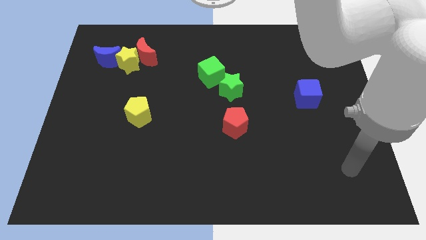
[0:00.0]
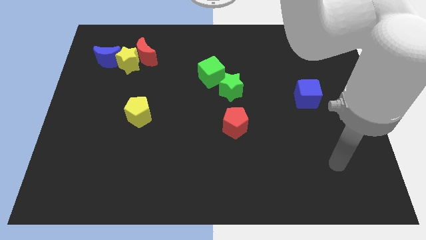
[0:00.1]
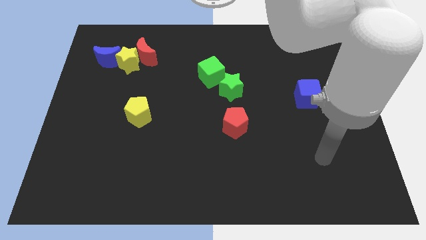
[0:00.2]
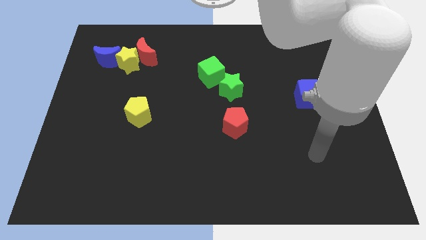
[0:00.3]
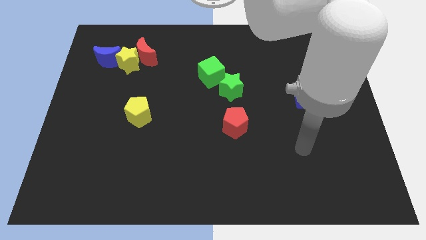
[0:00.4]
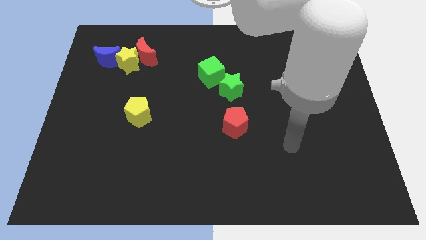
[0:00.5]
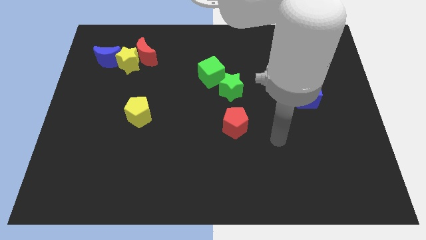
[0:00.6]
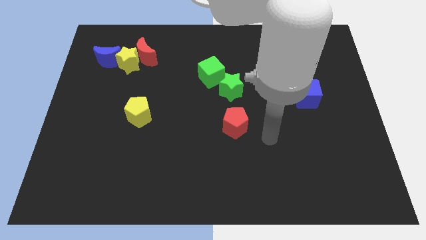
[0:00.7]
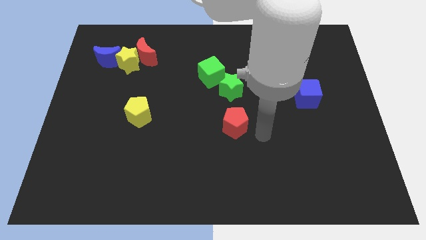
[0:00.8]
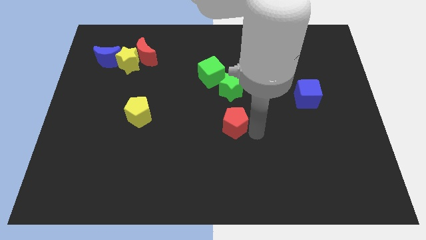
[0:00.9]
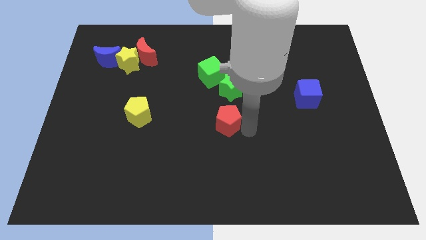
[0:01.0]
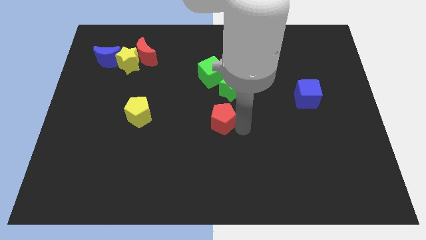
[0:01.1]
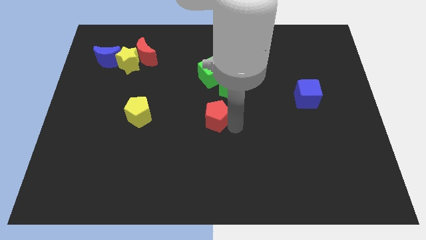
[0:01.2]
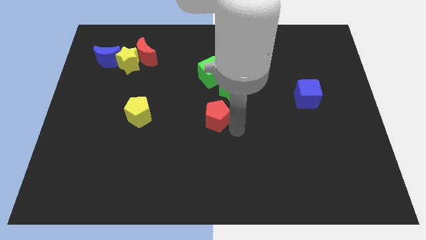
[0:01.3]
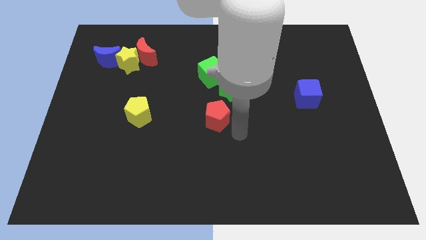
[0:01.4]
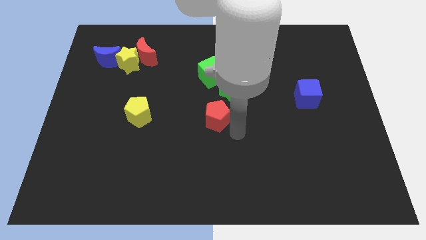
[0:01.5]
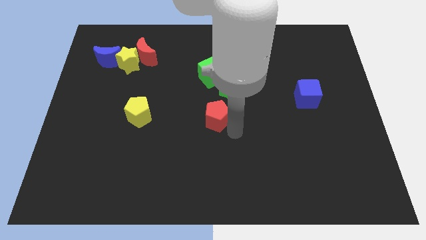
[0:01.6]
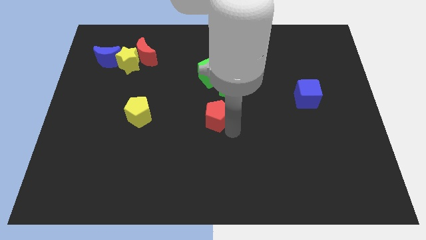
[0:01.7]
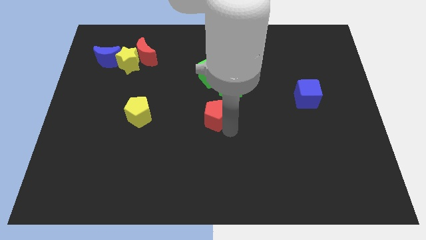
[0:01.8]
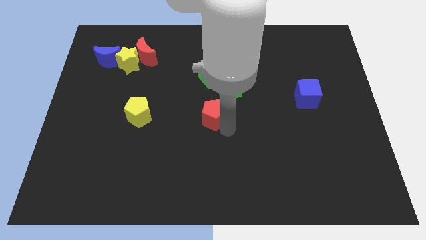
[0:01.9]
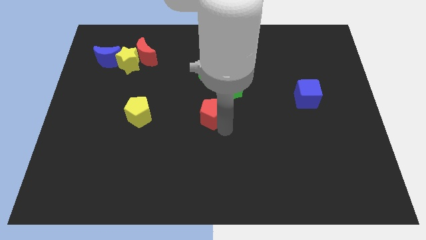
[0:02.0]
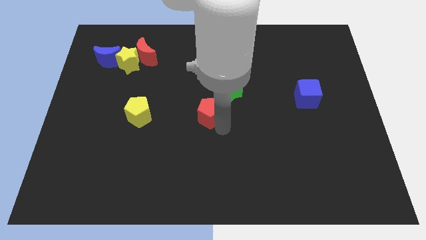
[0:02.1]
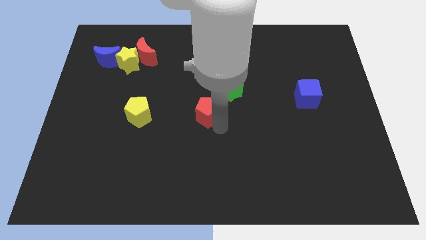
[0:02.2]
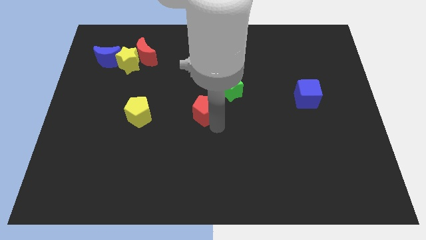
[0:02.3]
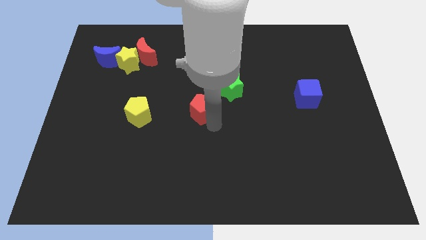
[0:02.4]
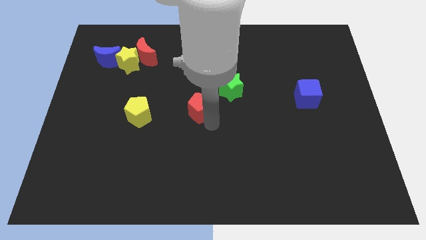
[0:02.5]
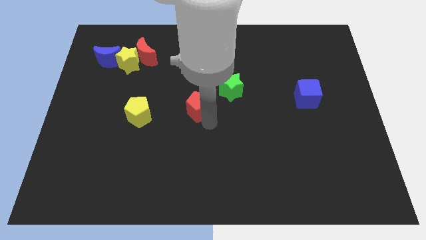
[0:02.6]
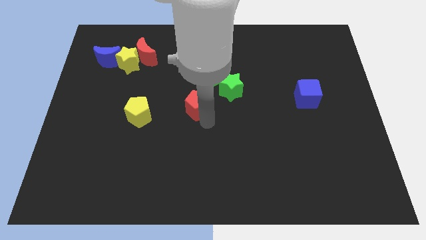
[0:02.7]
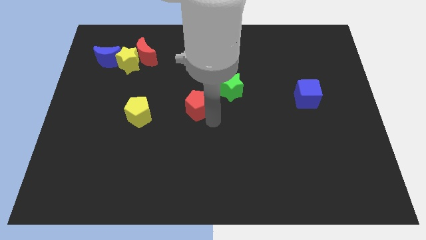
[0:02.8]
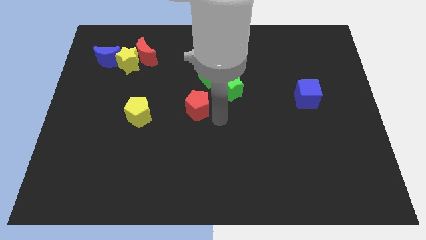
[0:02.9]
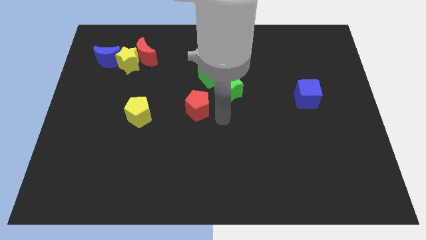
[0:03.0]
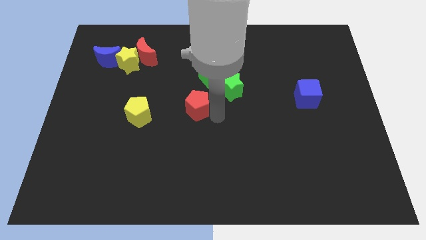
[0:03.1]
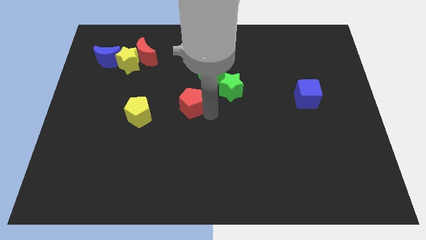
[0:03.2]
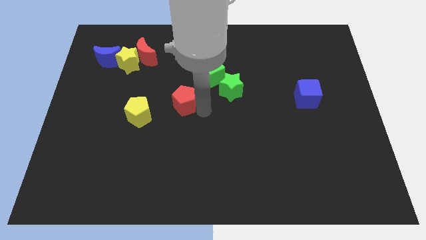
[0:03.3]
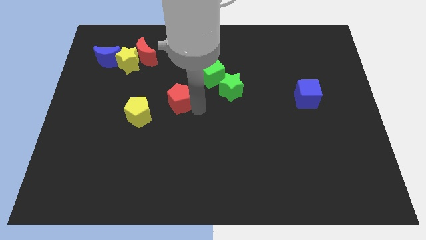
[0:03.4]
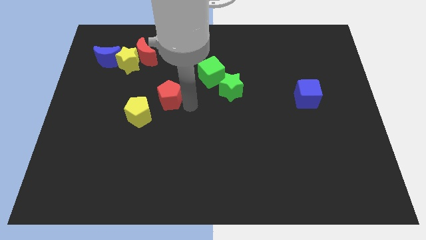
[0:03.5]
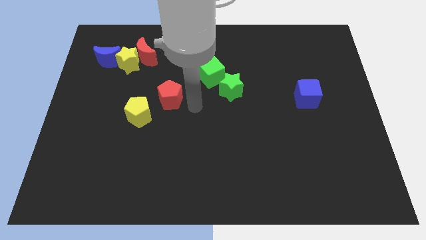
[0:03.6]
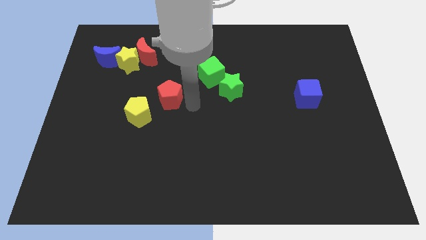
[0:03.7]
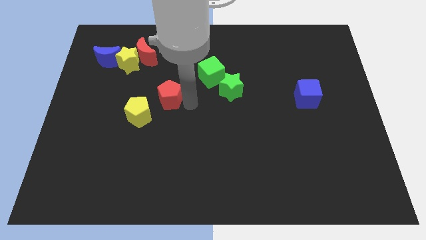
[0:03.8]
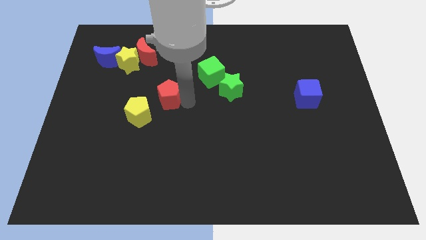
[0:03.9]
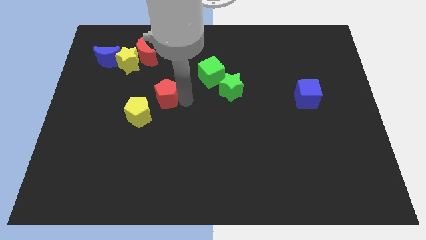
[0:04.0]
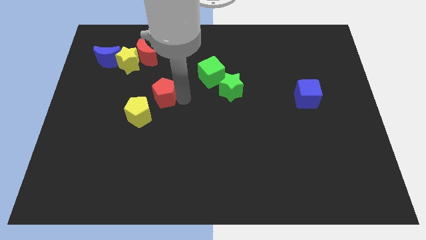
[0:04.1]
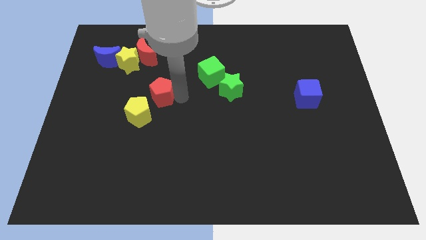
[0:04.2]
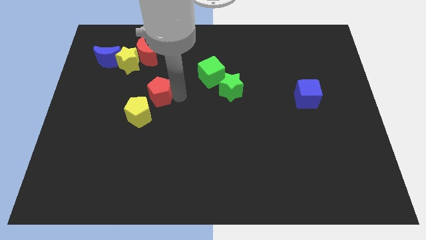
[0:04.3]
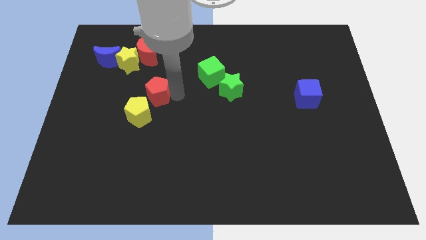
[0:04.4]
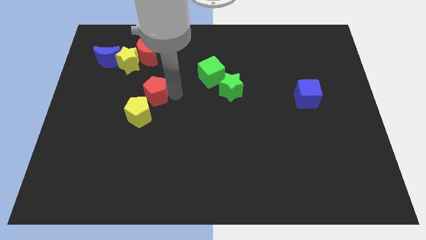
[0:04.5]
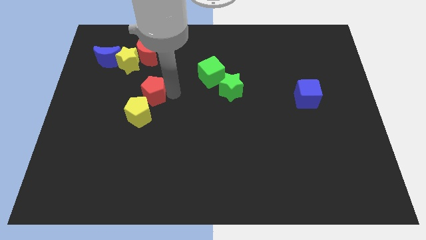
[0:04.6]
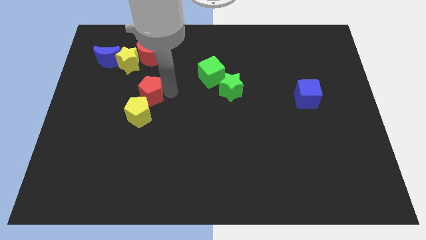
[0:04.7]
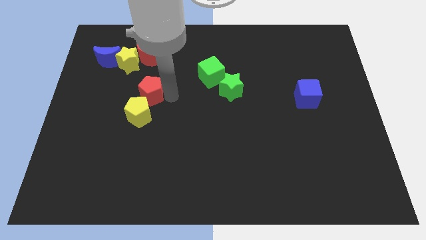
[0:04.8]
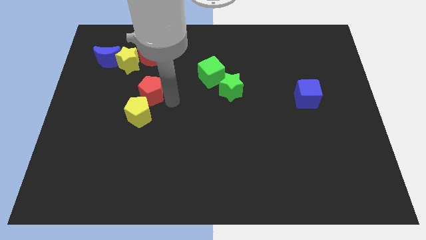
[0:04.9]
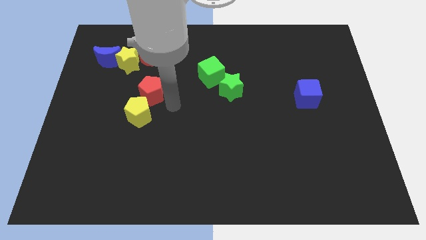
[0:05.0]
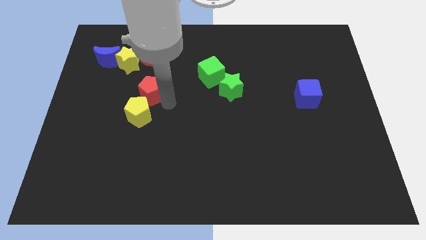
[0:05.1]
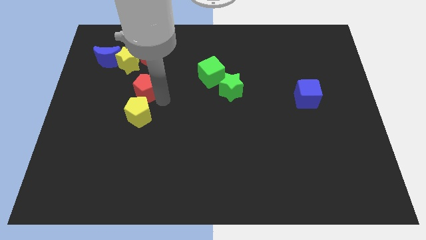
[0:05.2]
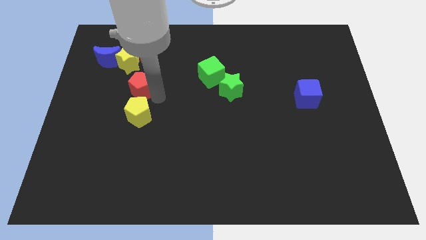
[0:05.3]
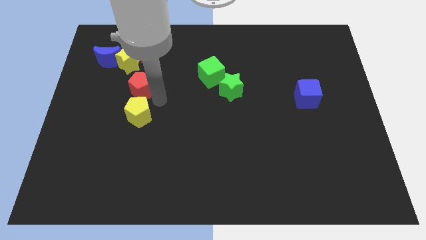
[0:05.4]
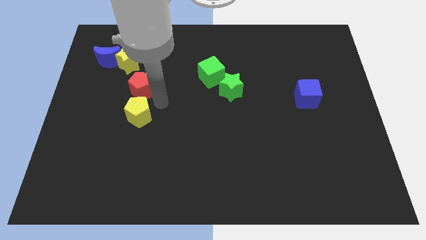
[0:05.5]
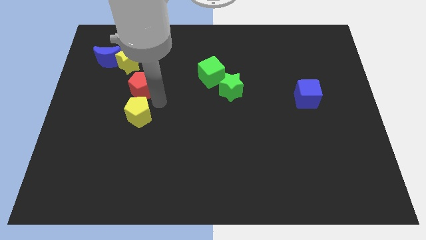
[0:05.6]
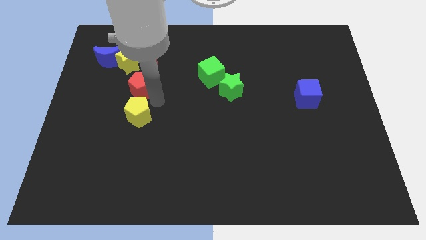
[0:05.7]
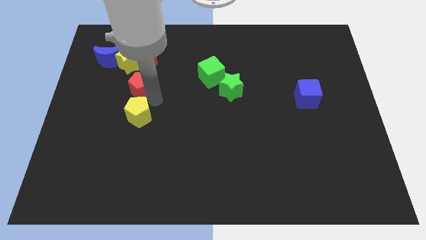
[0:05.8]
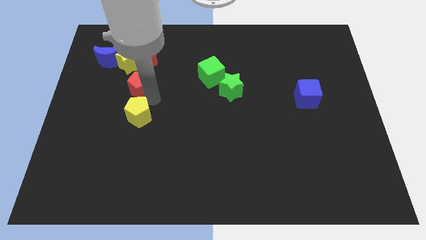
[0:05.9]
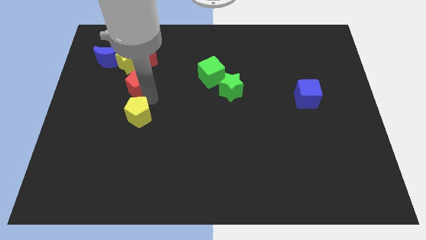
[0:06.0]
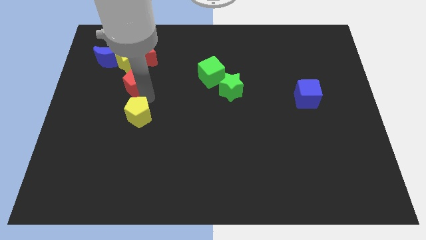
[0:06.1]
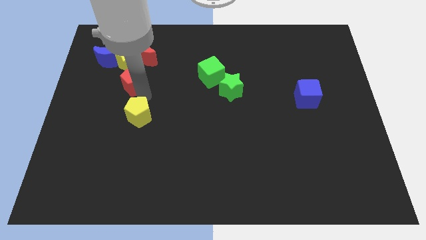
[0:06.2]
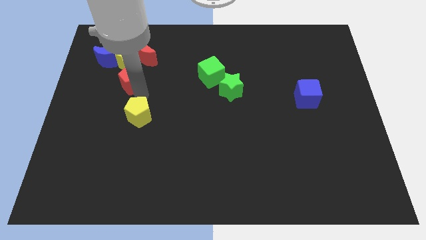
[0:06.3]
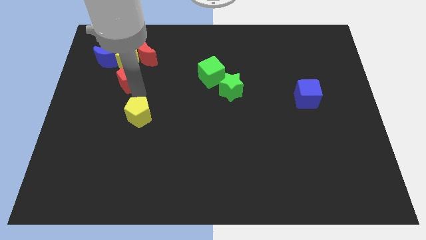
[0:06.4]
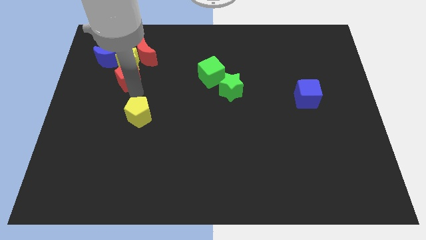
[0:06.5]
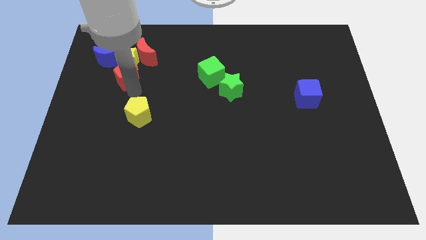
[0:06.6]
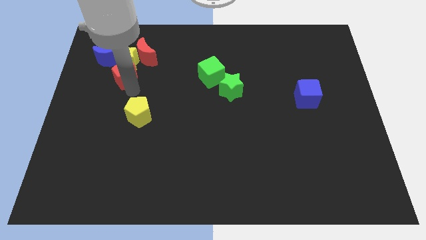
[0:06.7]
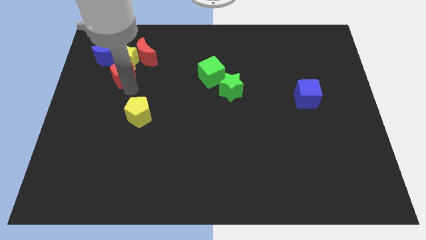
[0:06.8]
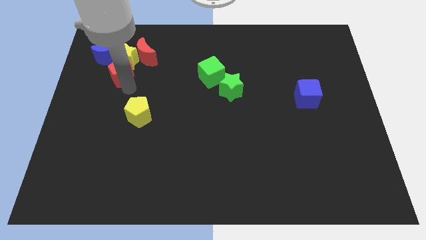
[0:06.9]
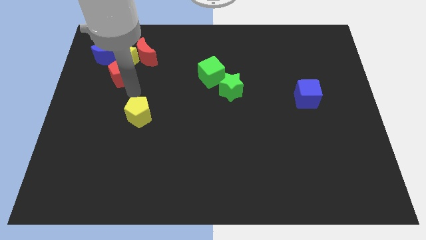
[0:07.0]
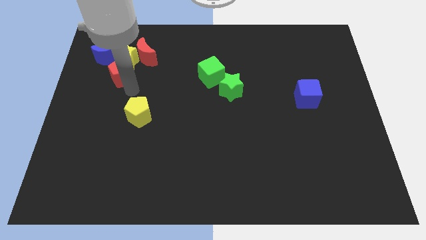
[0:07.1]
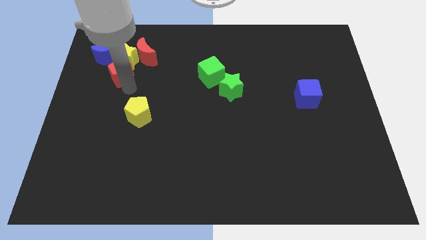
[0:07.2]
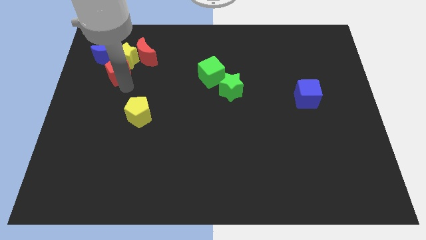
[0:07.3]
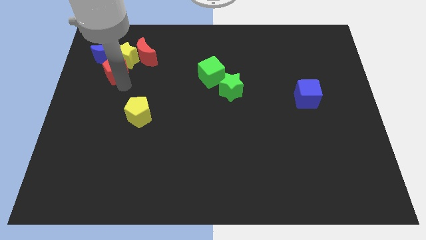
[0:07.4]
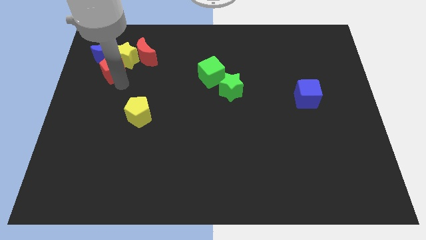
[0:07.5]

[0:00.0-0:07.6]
push the red pentagon next to the blue moon
